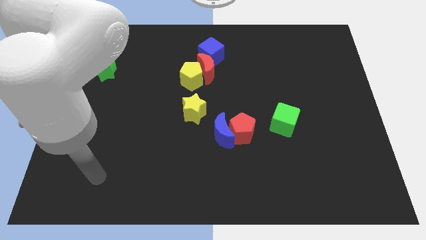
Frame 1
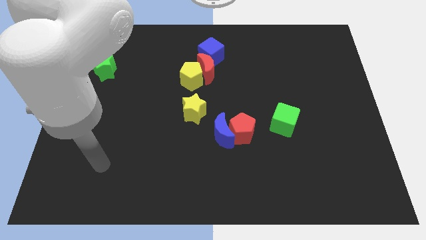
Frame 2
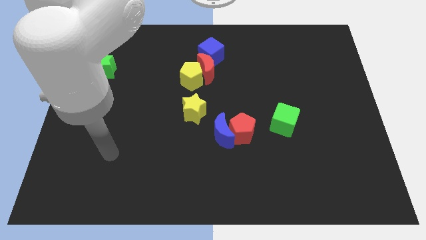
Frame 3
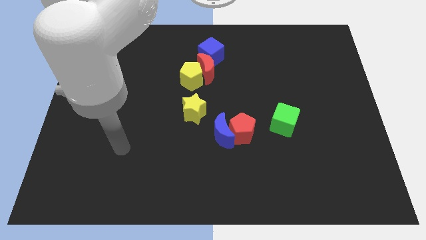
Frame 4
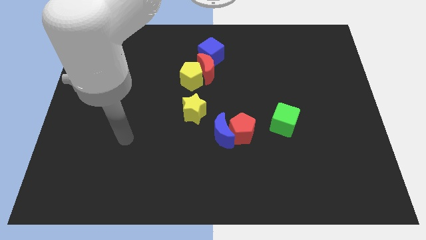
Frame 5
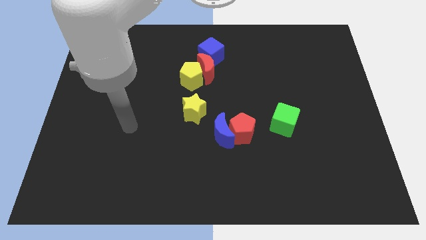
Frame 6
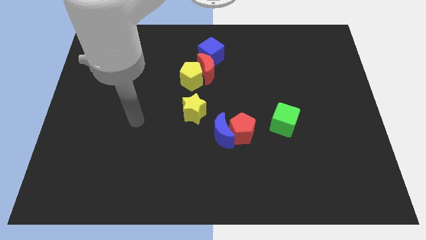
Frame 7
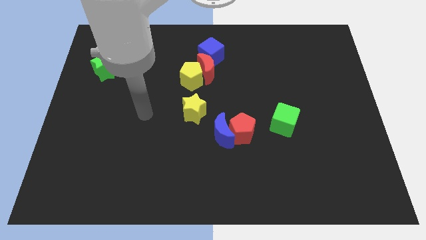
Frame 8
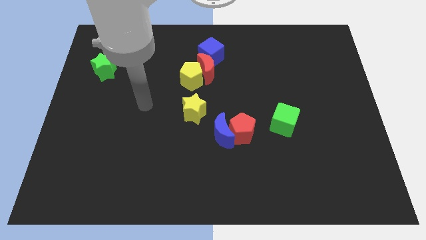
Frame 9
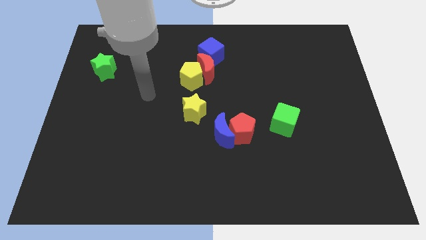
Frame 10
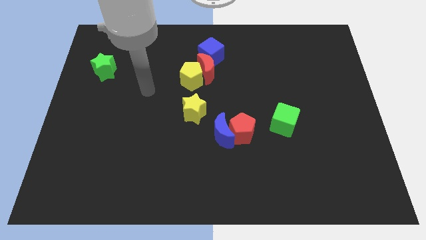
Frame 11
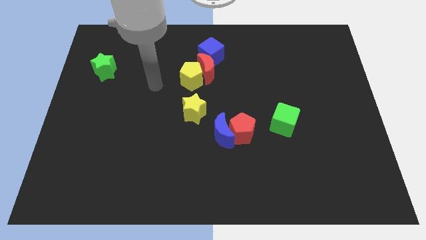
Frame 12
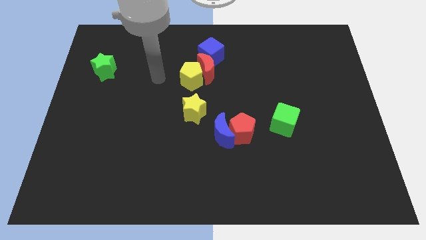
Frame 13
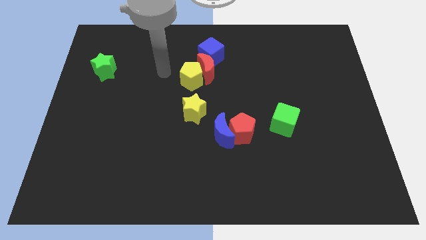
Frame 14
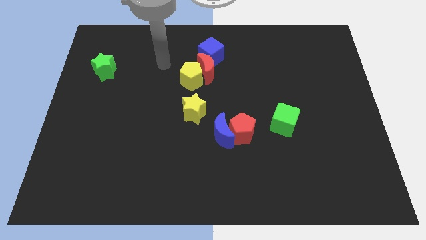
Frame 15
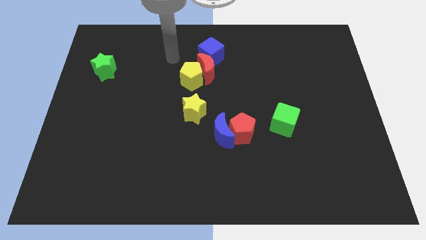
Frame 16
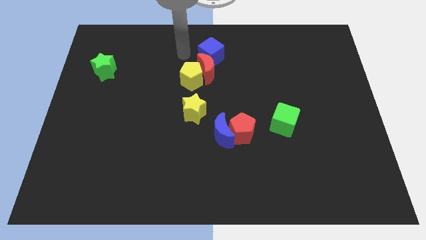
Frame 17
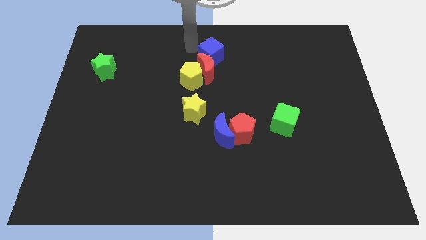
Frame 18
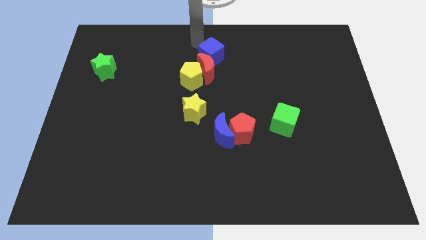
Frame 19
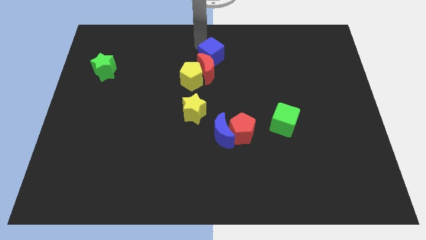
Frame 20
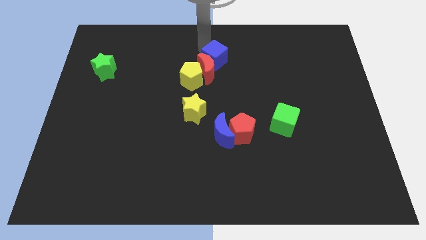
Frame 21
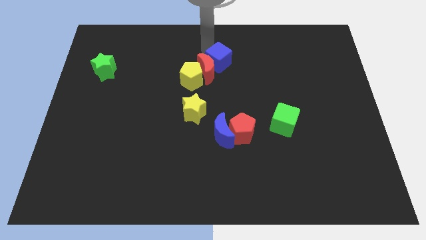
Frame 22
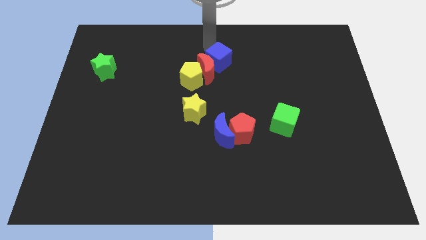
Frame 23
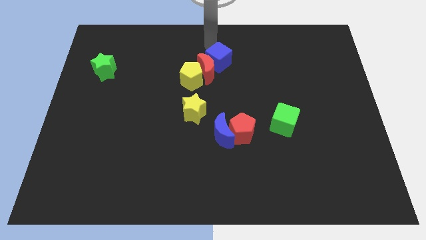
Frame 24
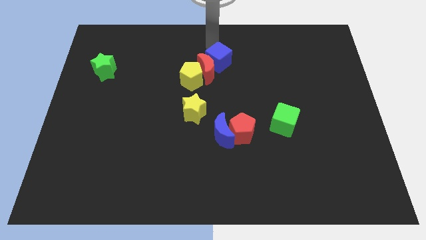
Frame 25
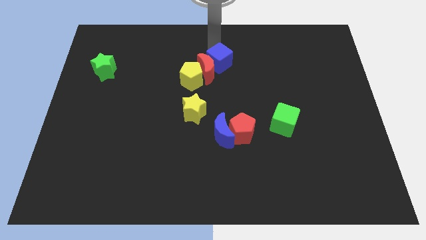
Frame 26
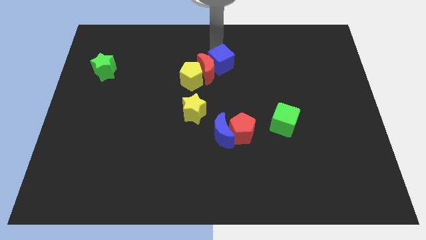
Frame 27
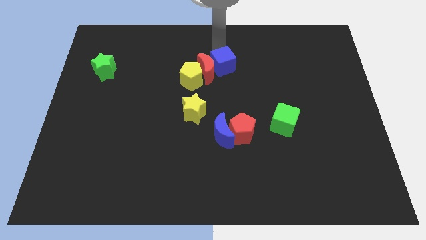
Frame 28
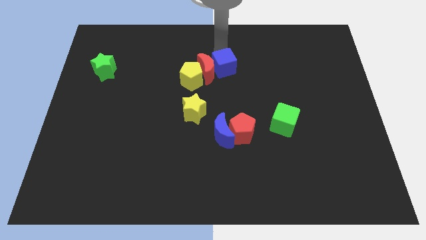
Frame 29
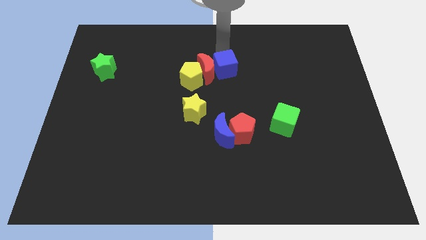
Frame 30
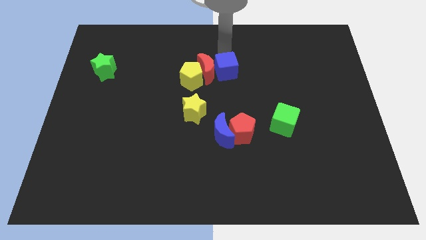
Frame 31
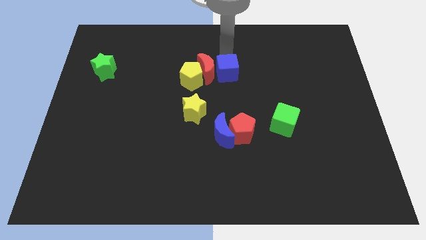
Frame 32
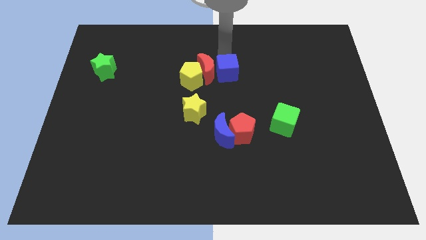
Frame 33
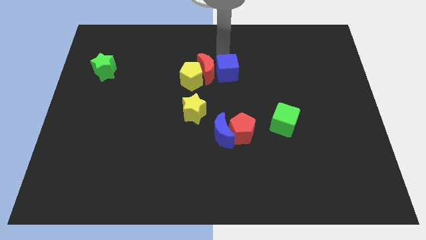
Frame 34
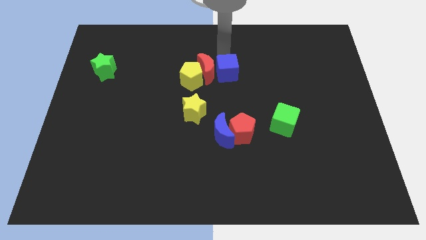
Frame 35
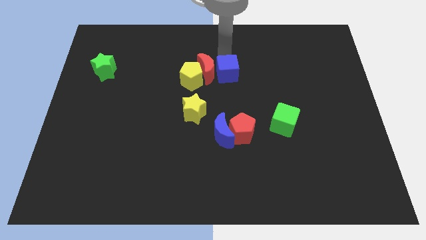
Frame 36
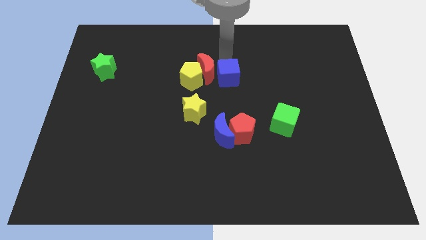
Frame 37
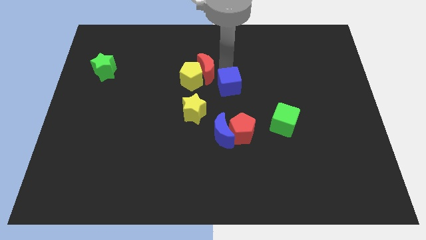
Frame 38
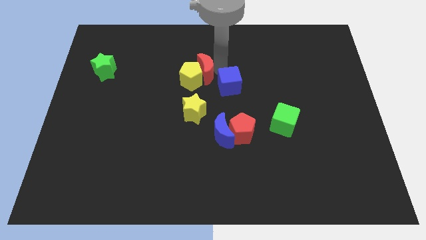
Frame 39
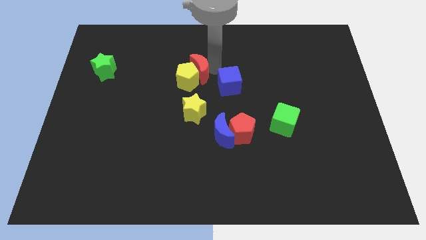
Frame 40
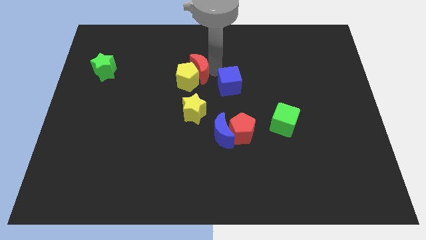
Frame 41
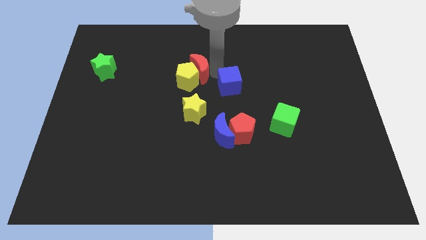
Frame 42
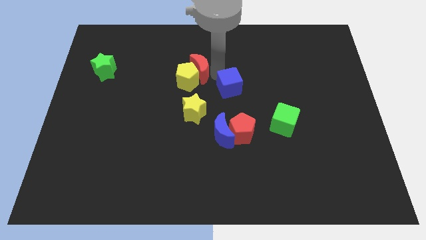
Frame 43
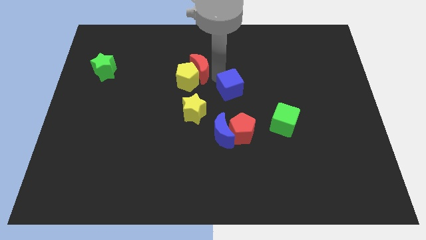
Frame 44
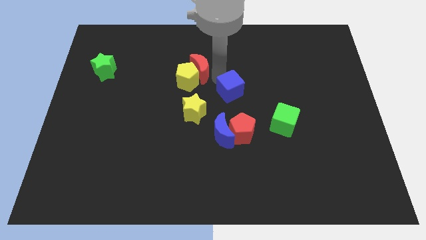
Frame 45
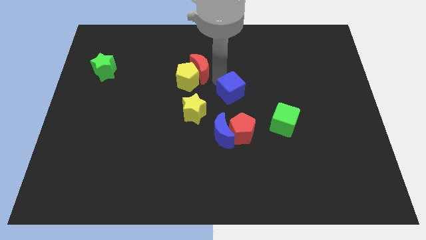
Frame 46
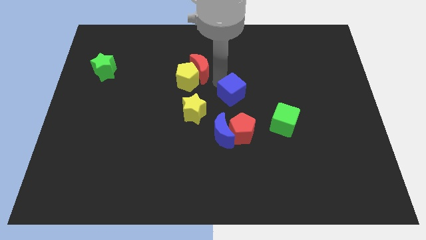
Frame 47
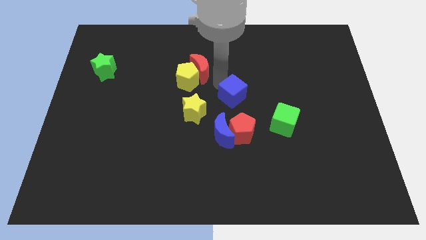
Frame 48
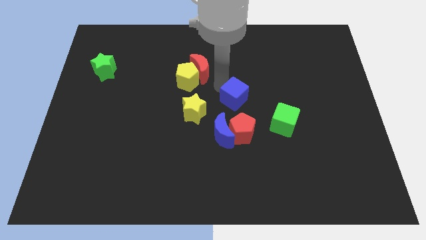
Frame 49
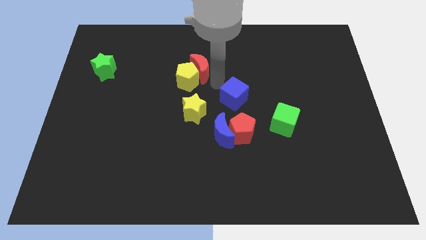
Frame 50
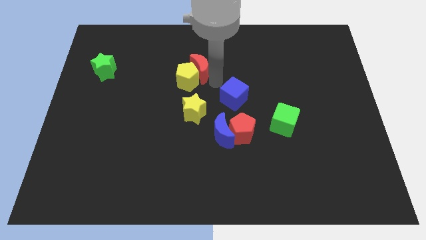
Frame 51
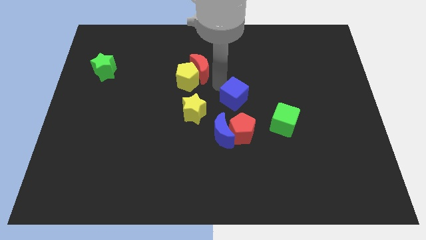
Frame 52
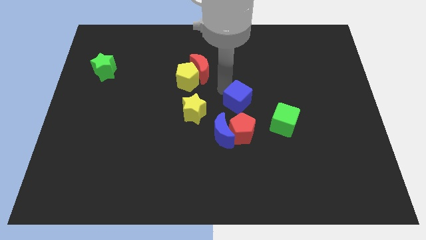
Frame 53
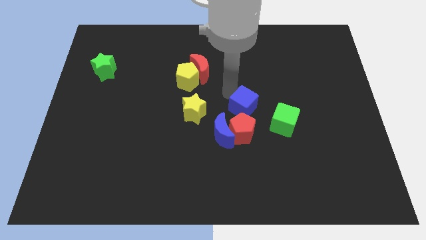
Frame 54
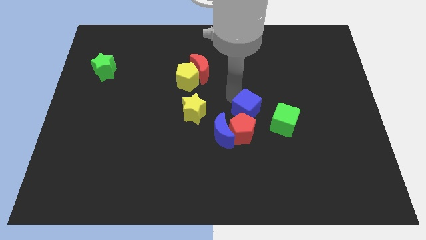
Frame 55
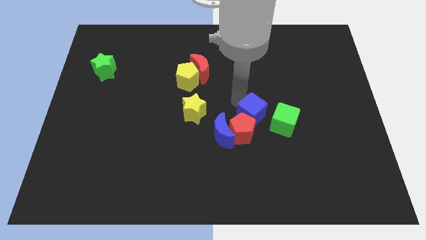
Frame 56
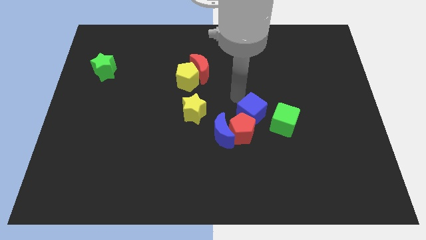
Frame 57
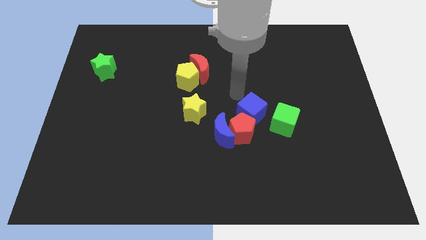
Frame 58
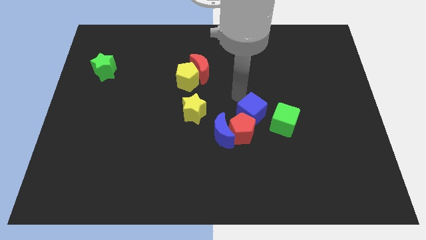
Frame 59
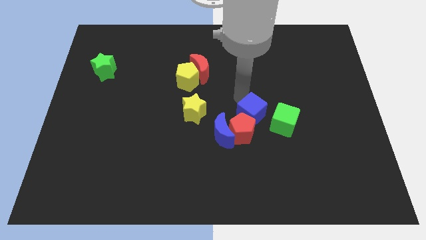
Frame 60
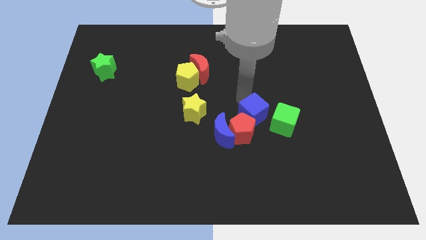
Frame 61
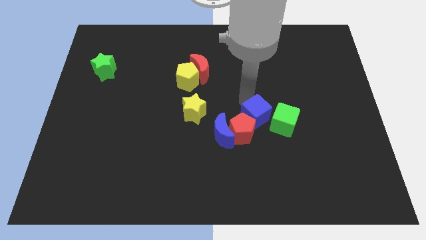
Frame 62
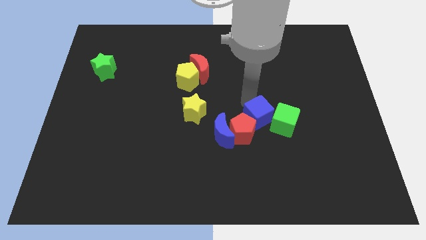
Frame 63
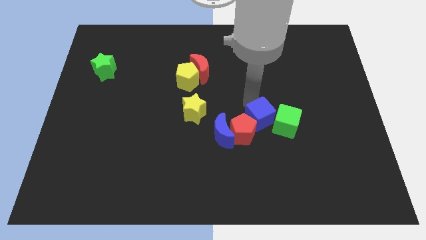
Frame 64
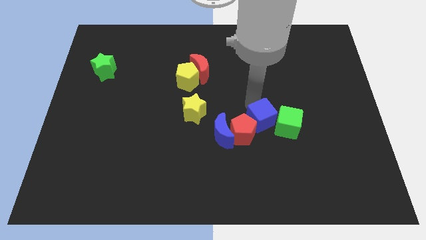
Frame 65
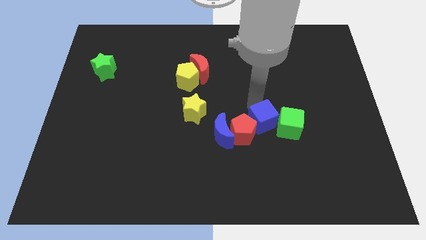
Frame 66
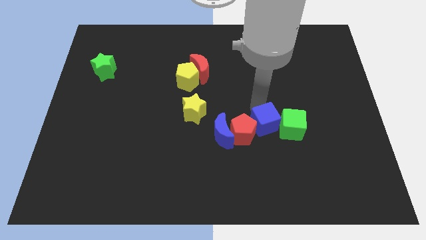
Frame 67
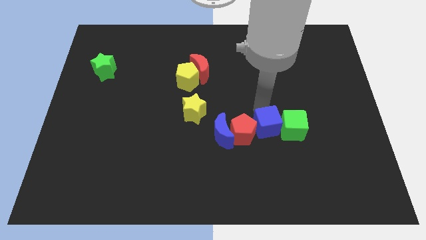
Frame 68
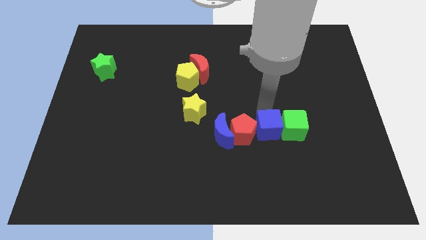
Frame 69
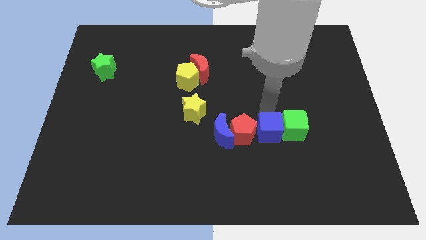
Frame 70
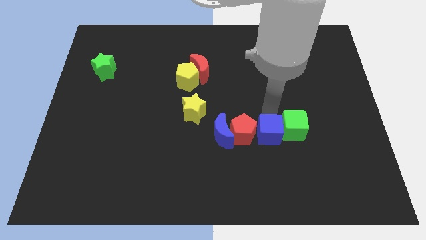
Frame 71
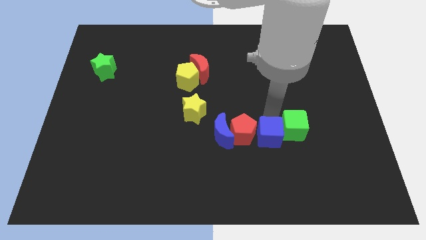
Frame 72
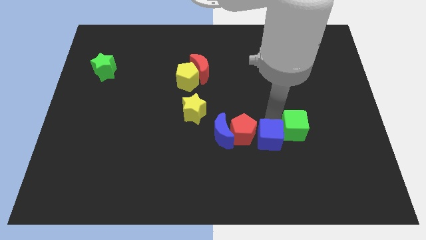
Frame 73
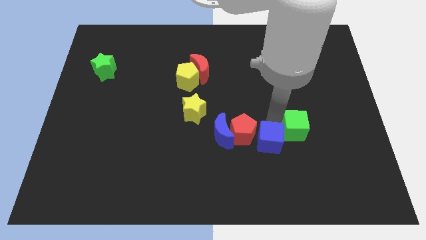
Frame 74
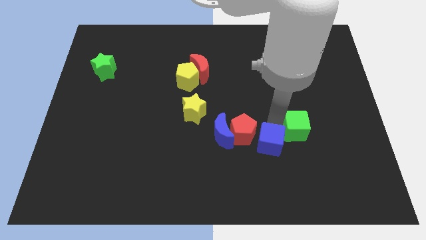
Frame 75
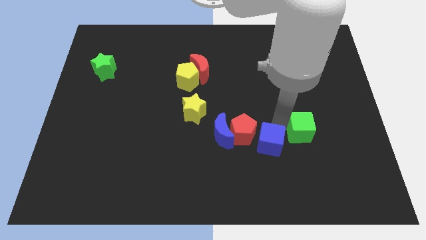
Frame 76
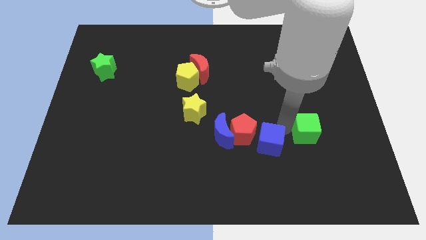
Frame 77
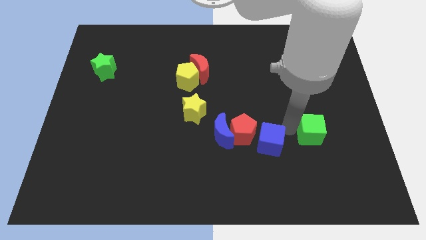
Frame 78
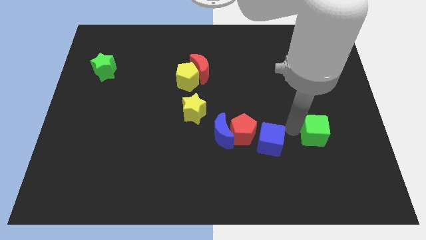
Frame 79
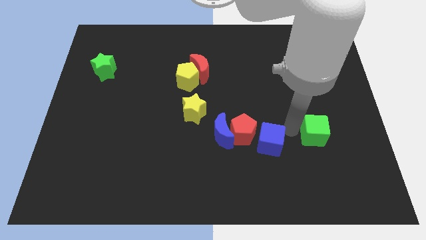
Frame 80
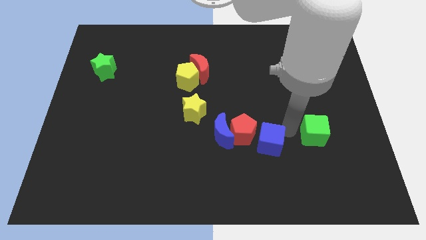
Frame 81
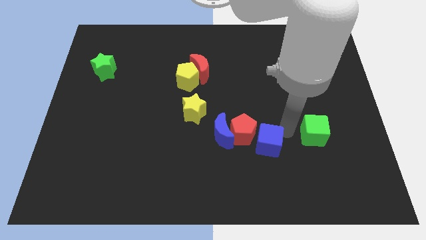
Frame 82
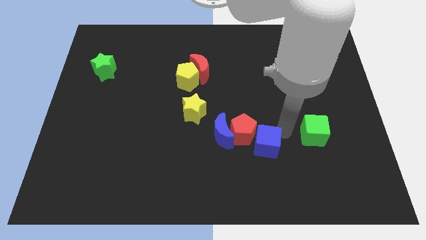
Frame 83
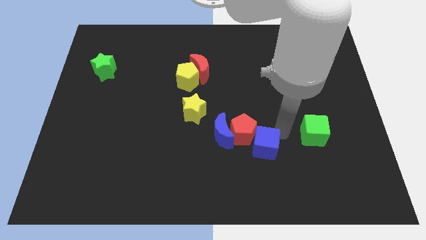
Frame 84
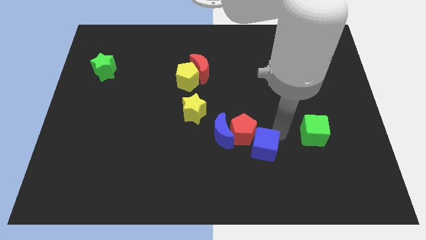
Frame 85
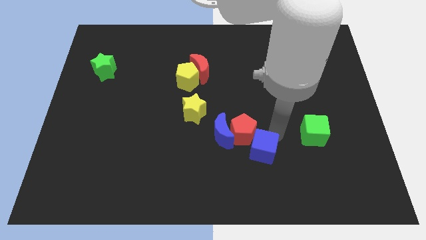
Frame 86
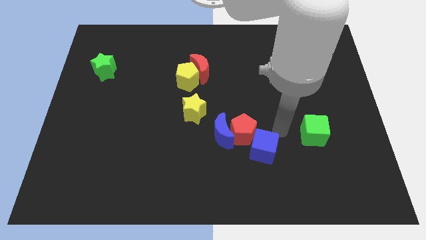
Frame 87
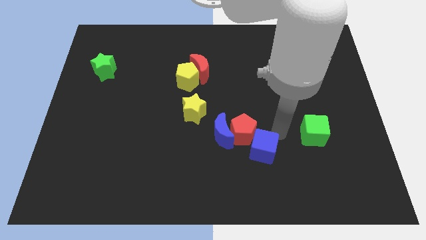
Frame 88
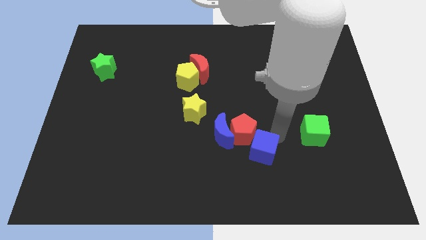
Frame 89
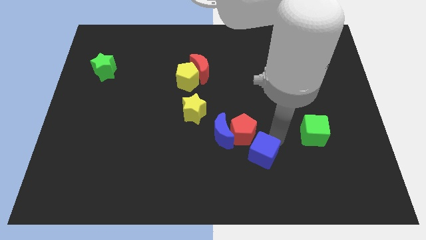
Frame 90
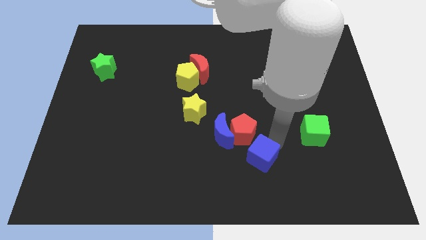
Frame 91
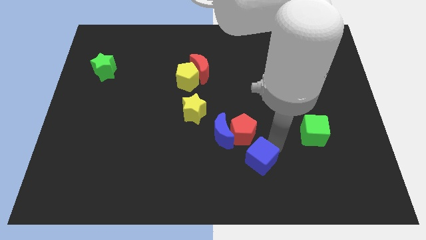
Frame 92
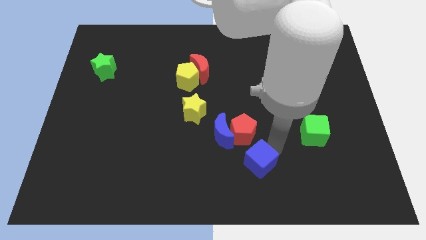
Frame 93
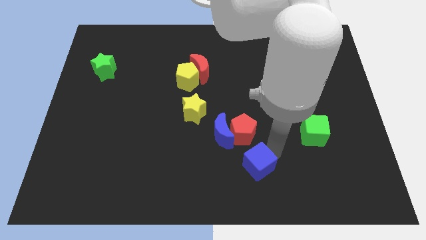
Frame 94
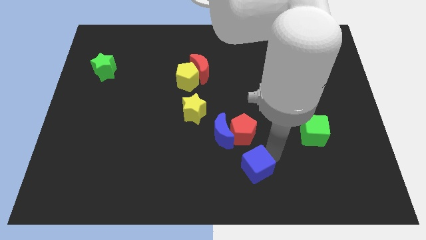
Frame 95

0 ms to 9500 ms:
push the blue cube to the bottom
